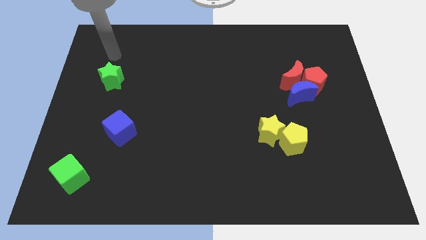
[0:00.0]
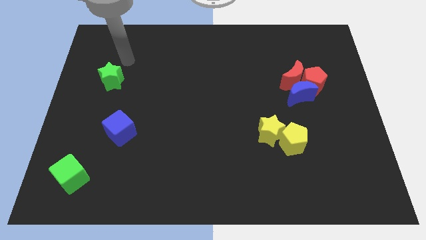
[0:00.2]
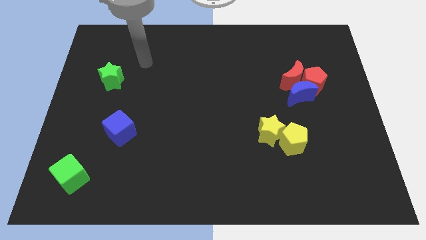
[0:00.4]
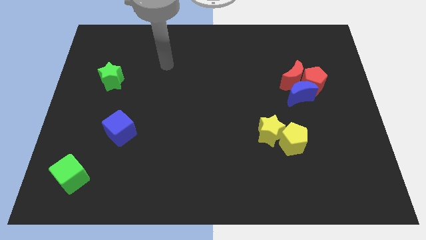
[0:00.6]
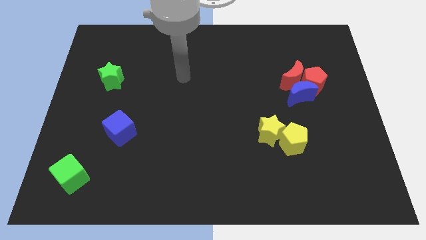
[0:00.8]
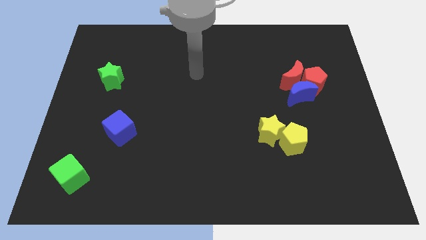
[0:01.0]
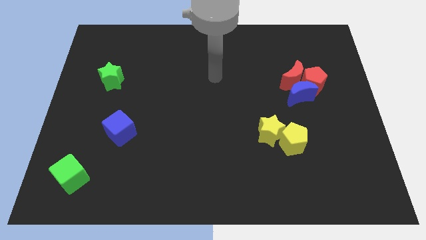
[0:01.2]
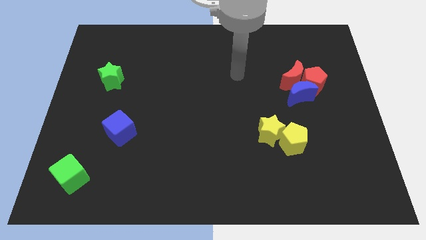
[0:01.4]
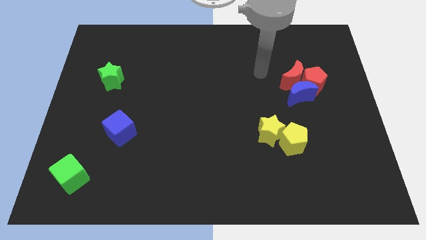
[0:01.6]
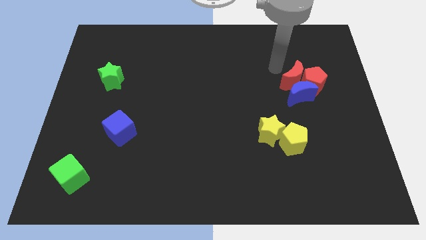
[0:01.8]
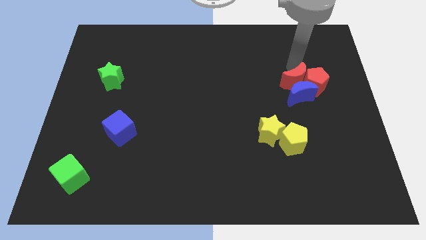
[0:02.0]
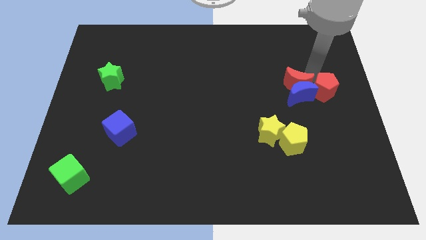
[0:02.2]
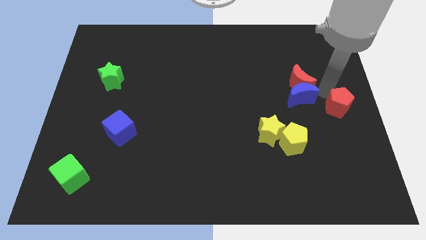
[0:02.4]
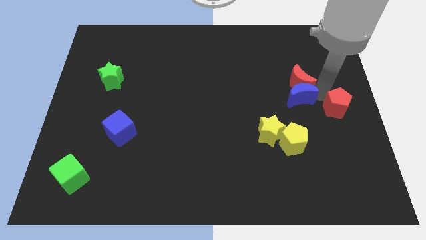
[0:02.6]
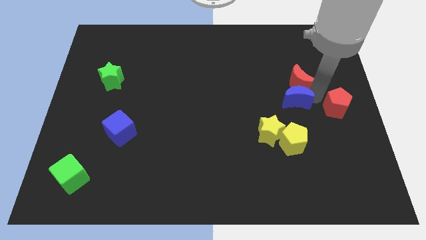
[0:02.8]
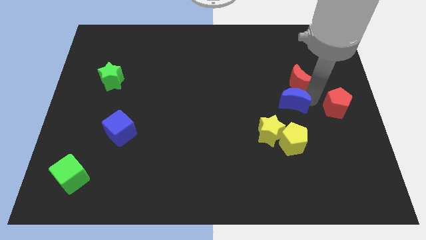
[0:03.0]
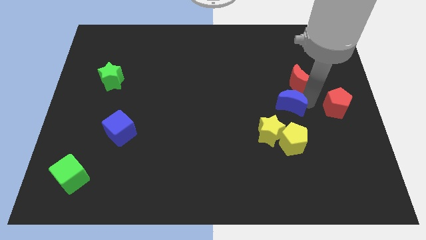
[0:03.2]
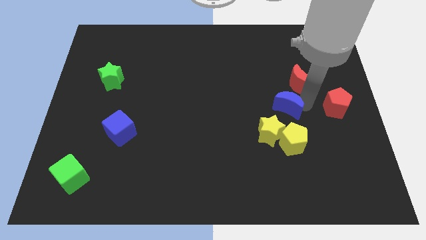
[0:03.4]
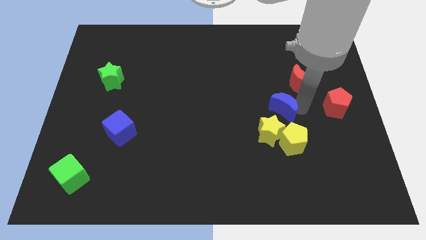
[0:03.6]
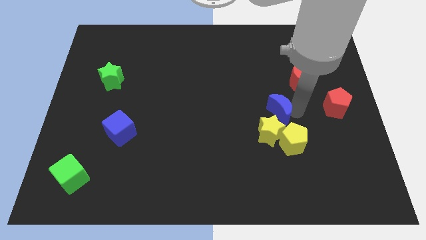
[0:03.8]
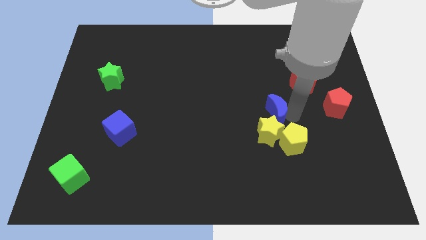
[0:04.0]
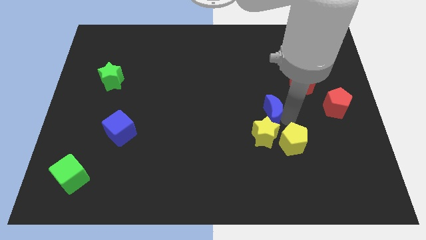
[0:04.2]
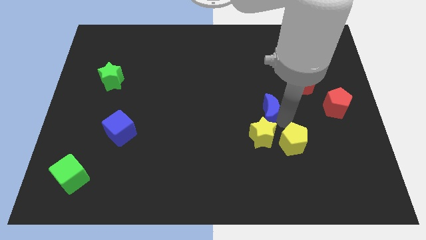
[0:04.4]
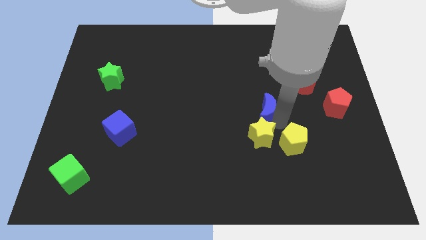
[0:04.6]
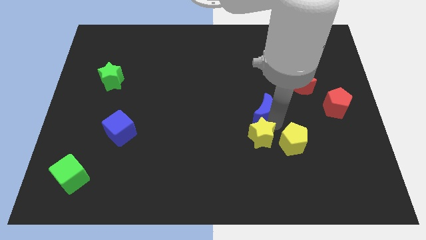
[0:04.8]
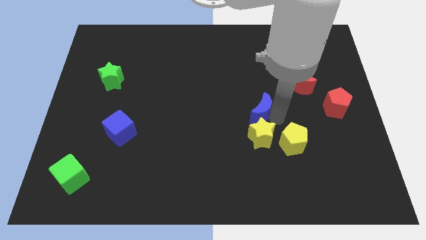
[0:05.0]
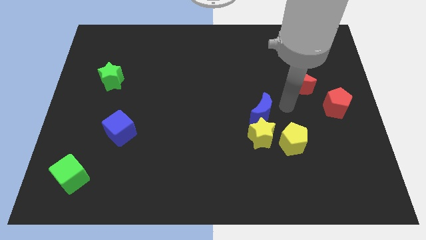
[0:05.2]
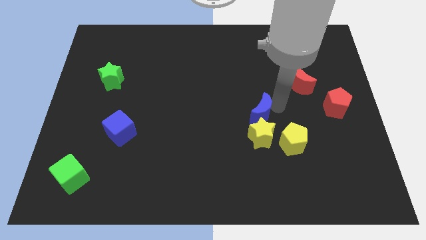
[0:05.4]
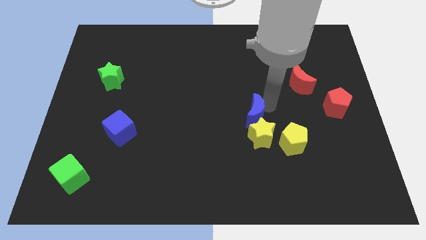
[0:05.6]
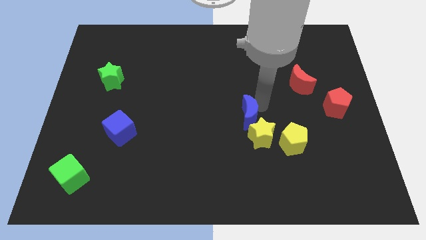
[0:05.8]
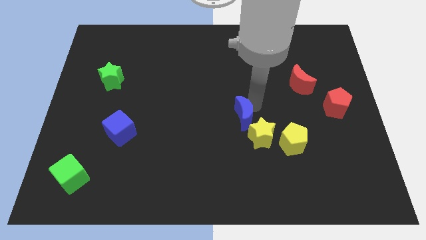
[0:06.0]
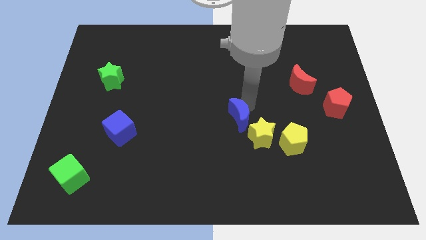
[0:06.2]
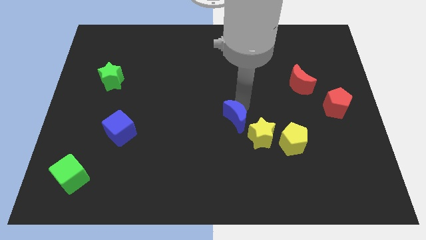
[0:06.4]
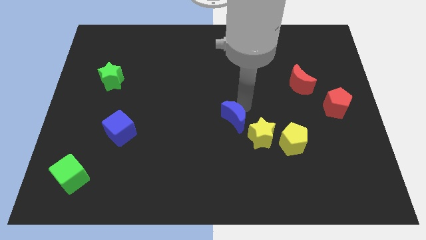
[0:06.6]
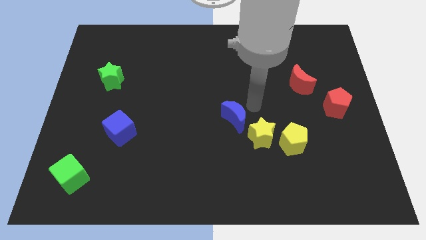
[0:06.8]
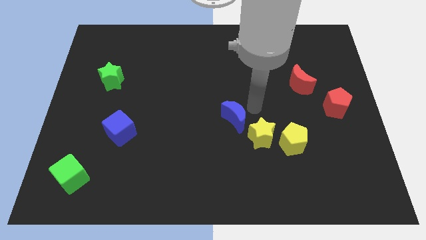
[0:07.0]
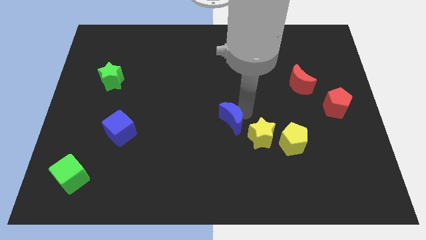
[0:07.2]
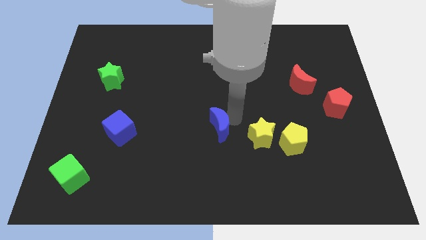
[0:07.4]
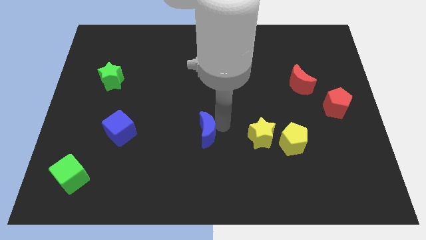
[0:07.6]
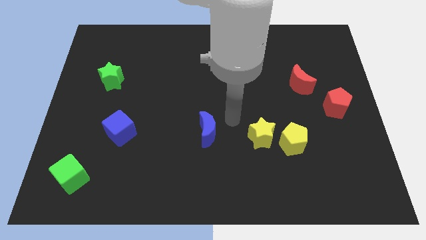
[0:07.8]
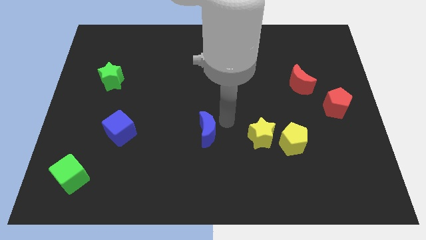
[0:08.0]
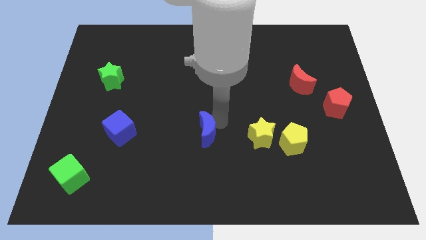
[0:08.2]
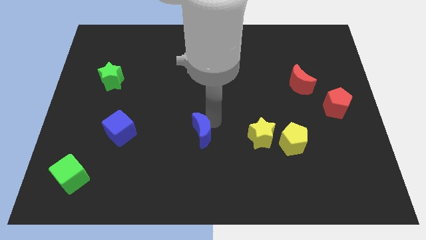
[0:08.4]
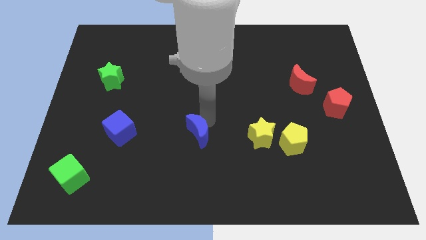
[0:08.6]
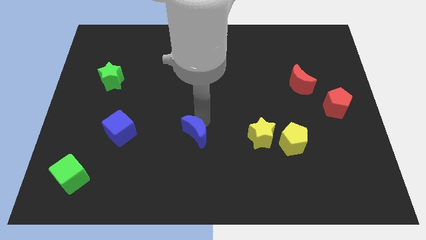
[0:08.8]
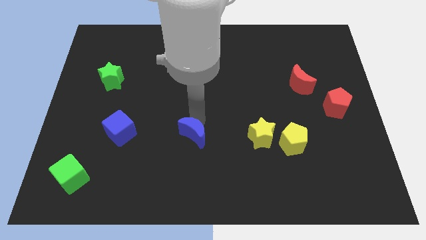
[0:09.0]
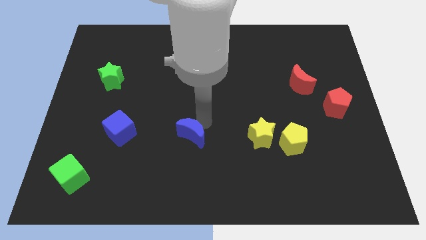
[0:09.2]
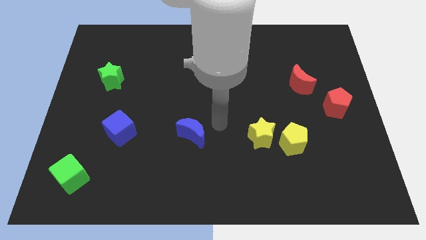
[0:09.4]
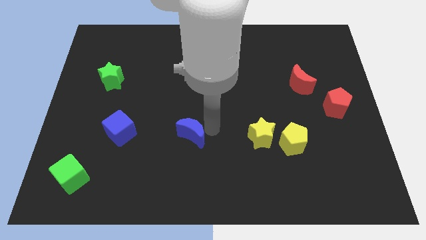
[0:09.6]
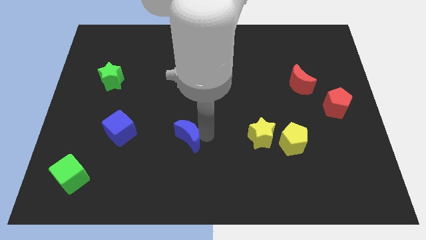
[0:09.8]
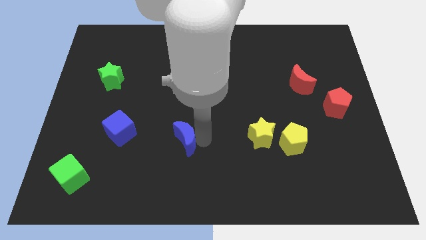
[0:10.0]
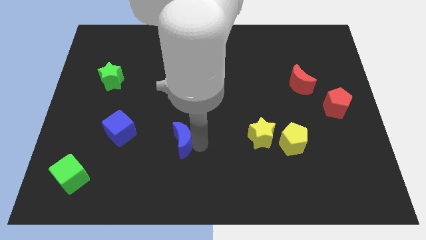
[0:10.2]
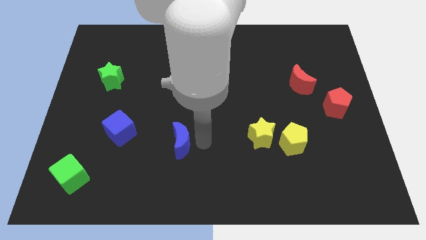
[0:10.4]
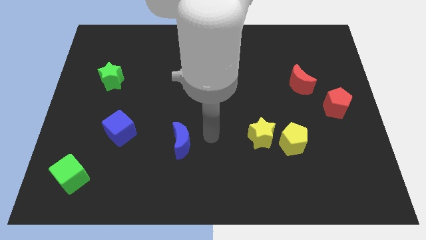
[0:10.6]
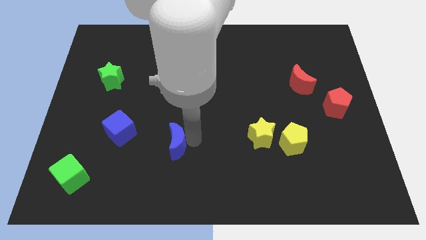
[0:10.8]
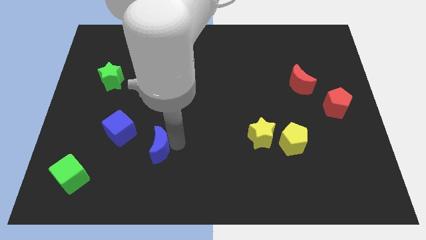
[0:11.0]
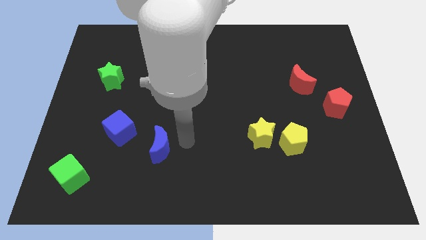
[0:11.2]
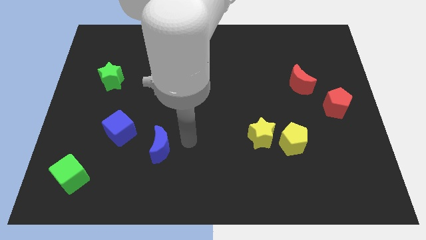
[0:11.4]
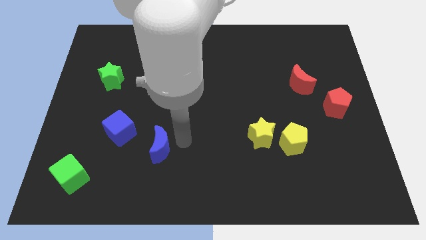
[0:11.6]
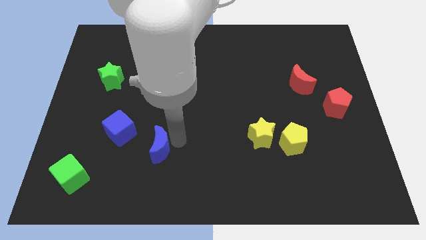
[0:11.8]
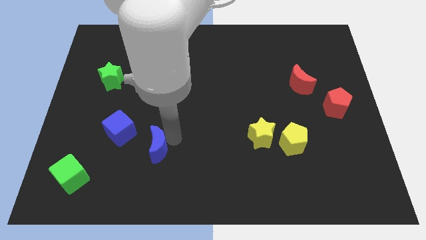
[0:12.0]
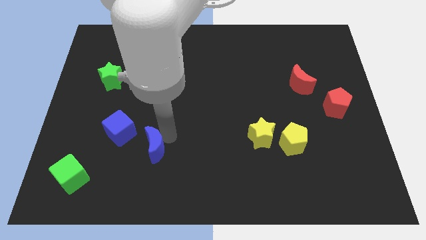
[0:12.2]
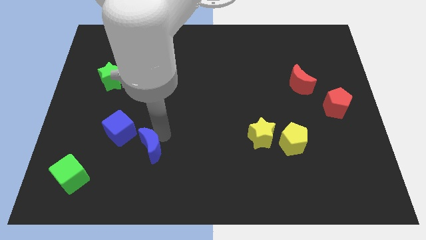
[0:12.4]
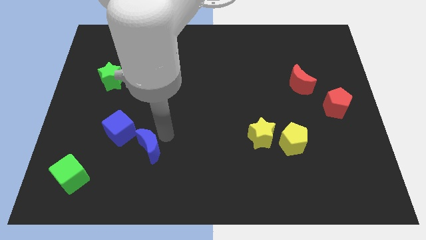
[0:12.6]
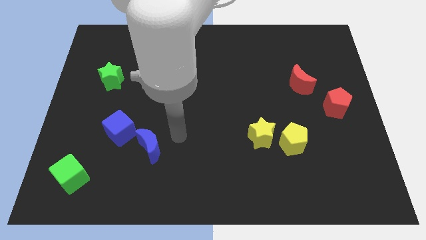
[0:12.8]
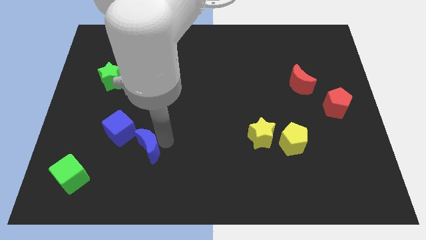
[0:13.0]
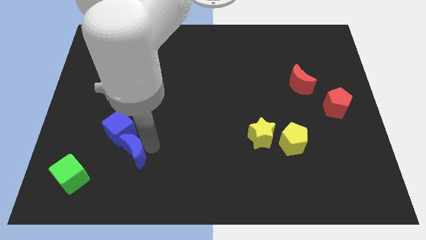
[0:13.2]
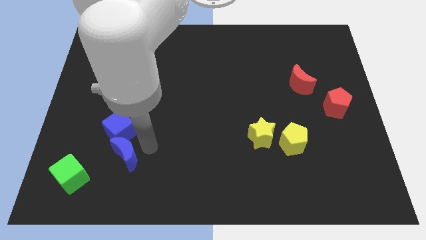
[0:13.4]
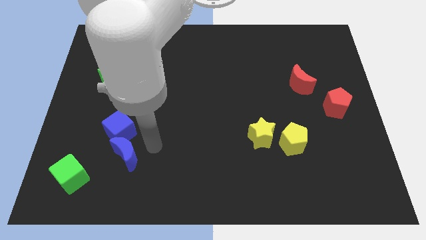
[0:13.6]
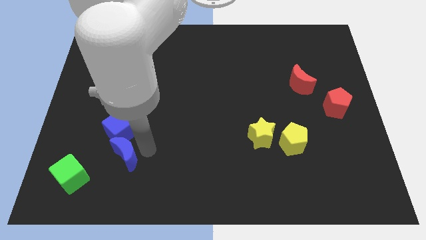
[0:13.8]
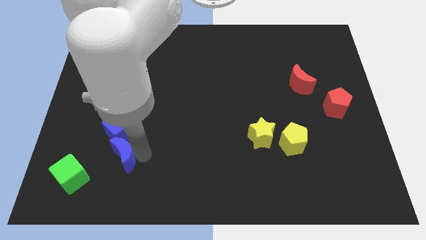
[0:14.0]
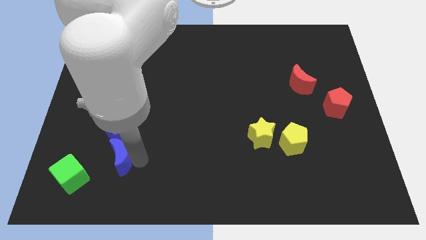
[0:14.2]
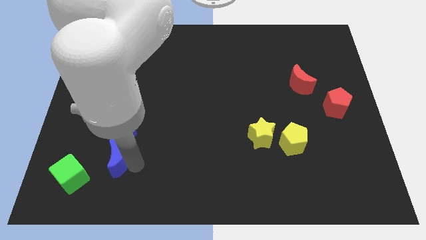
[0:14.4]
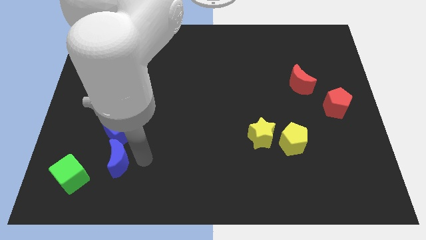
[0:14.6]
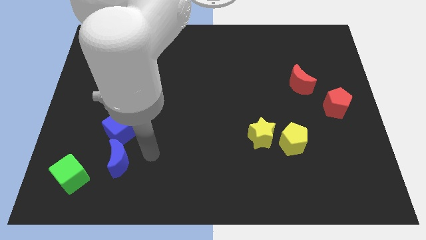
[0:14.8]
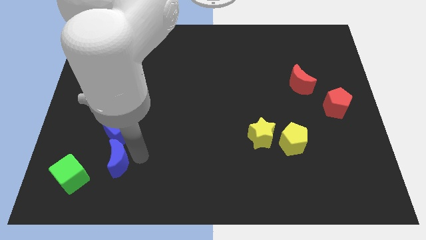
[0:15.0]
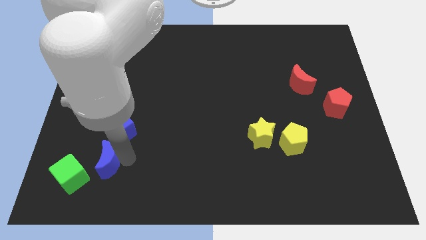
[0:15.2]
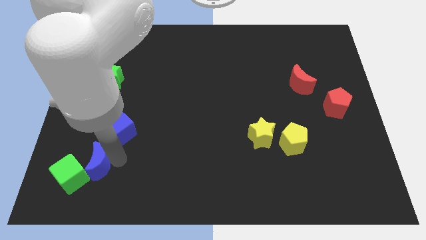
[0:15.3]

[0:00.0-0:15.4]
slide the blue moon to the green cube
